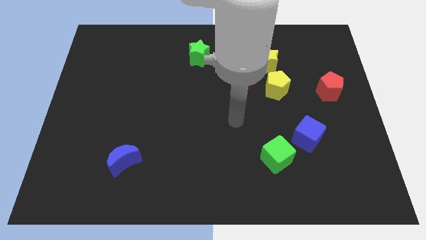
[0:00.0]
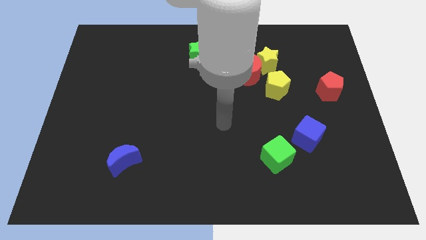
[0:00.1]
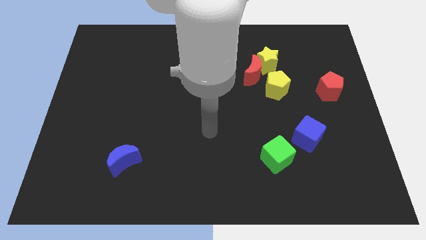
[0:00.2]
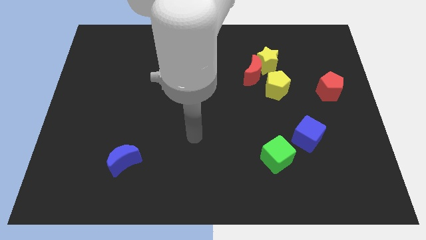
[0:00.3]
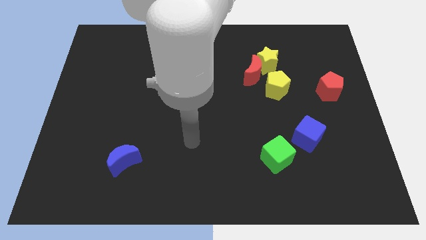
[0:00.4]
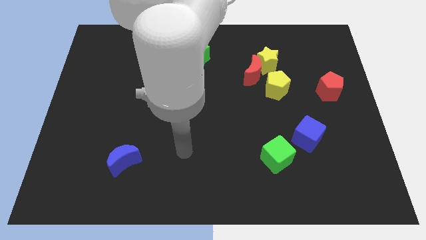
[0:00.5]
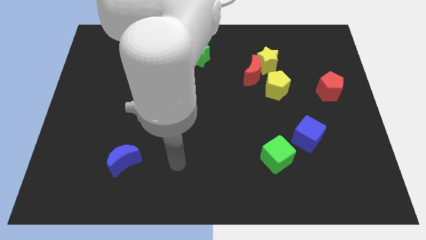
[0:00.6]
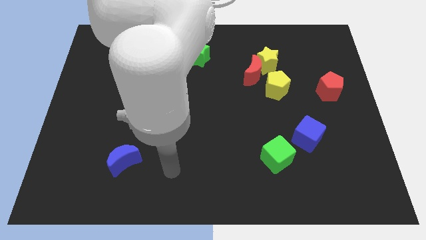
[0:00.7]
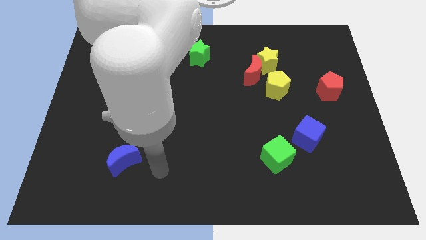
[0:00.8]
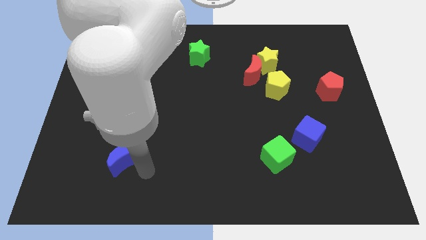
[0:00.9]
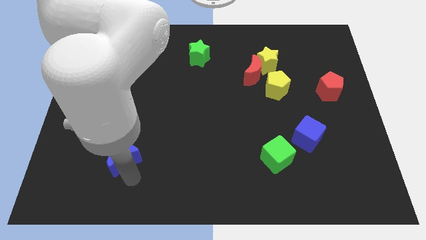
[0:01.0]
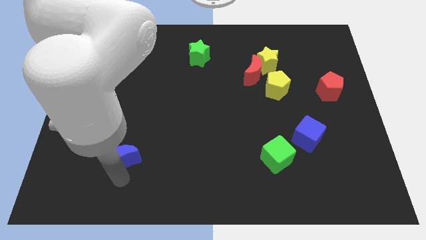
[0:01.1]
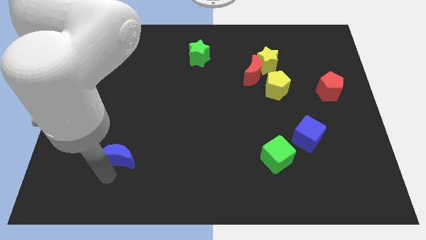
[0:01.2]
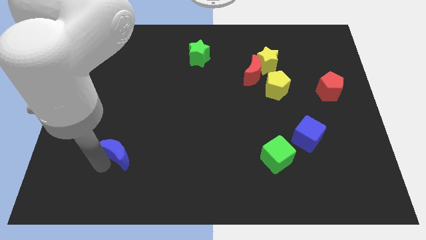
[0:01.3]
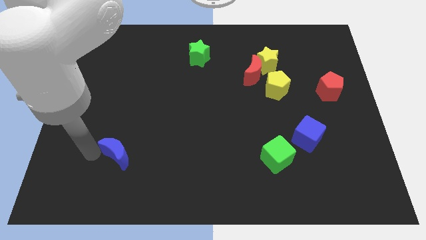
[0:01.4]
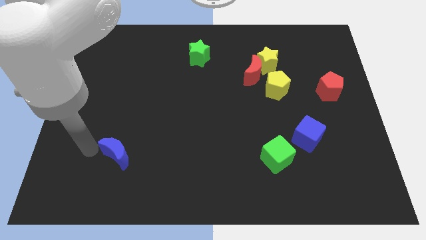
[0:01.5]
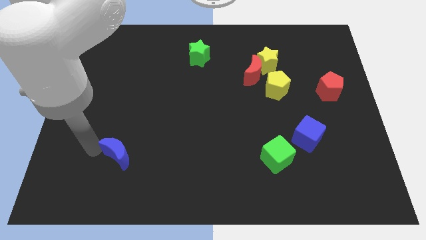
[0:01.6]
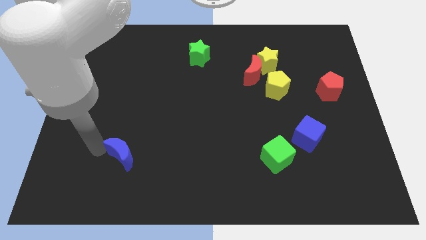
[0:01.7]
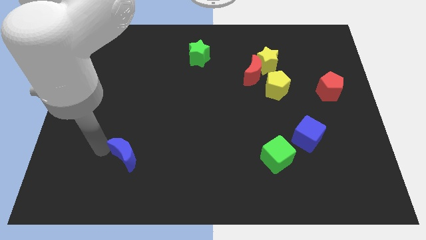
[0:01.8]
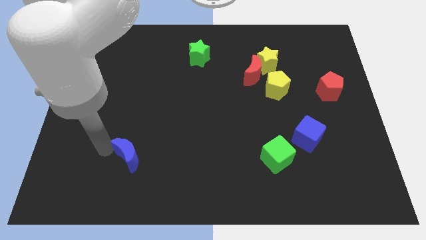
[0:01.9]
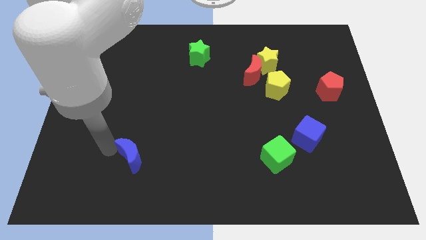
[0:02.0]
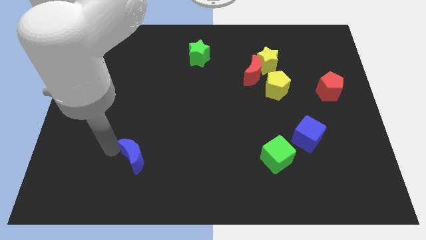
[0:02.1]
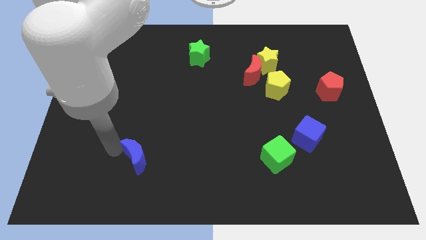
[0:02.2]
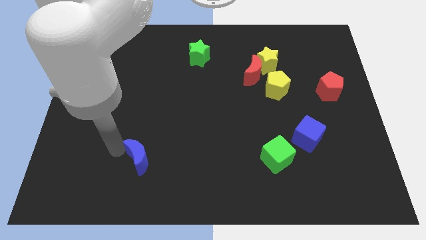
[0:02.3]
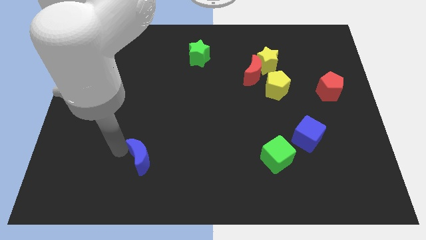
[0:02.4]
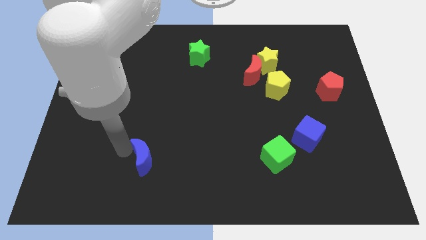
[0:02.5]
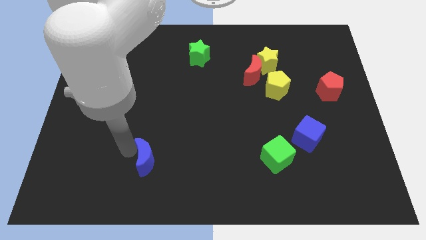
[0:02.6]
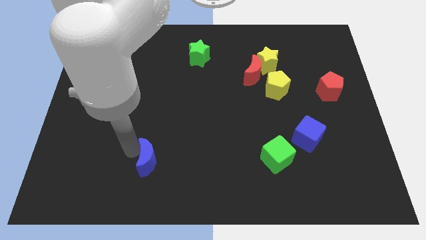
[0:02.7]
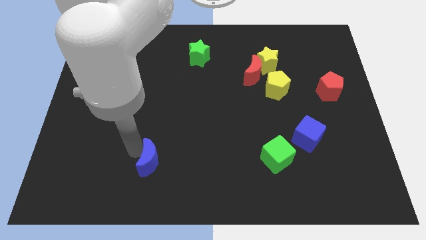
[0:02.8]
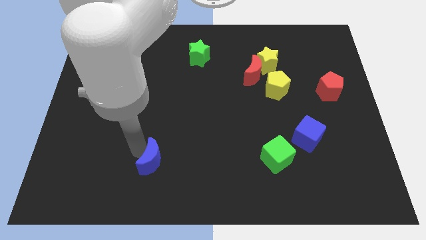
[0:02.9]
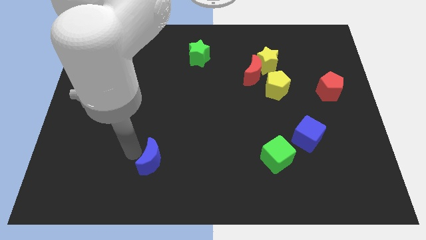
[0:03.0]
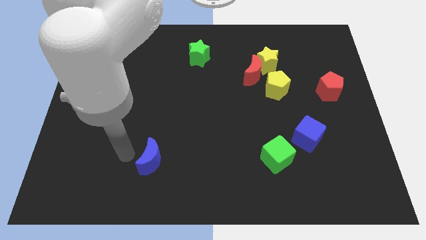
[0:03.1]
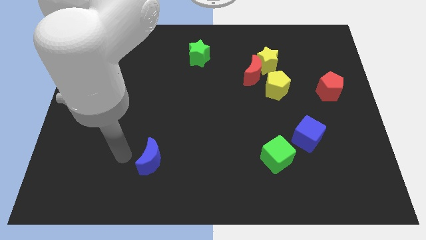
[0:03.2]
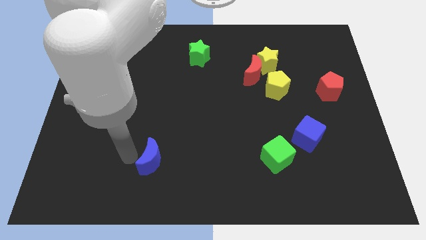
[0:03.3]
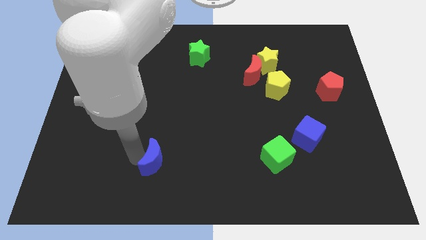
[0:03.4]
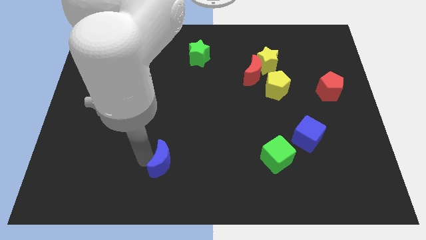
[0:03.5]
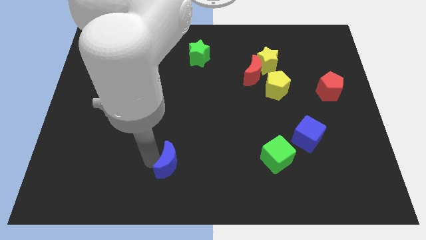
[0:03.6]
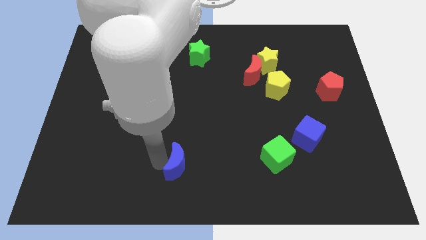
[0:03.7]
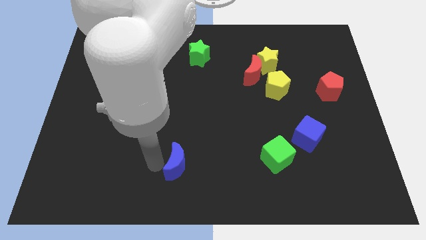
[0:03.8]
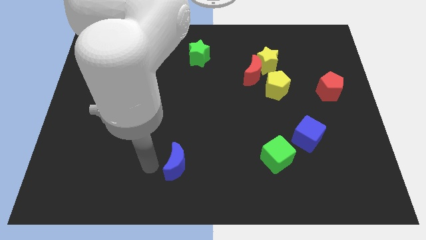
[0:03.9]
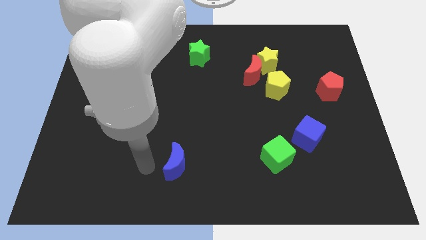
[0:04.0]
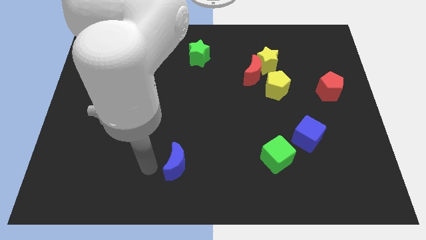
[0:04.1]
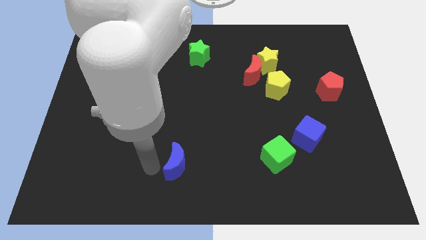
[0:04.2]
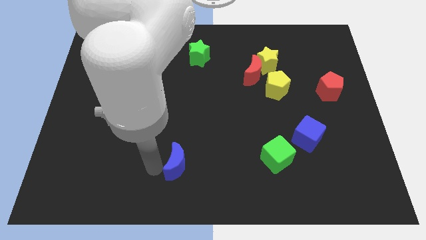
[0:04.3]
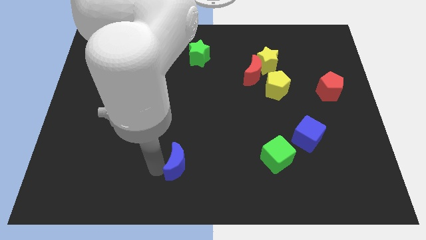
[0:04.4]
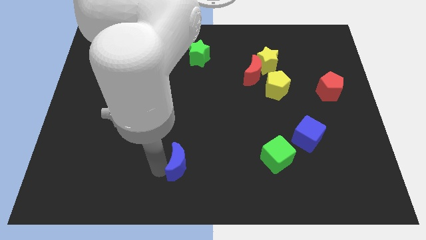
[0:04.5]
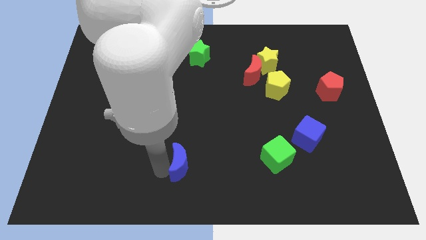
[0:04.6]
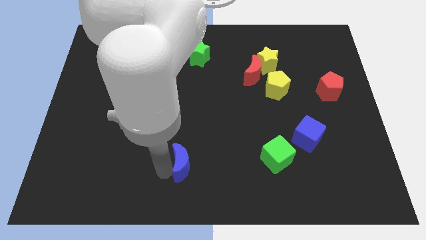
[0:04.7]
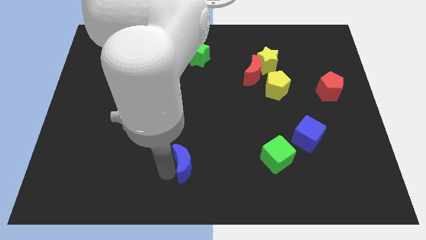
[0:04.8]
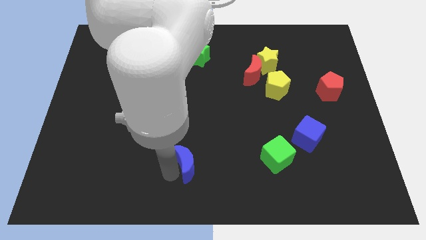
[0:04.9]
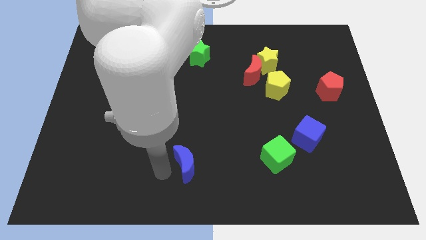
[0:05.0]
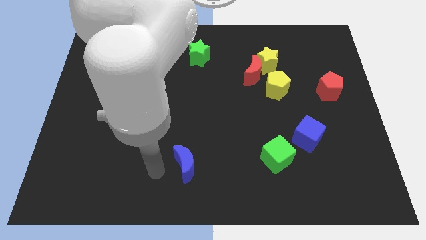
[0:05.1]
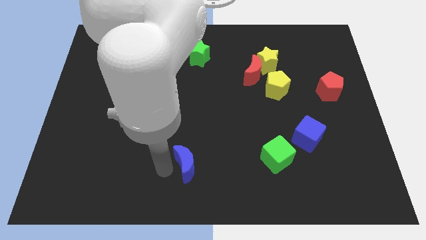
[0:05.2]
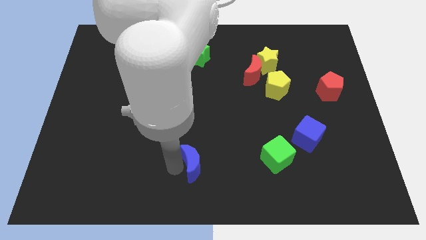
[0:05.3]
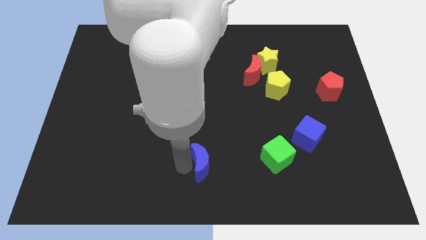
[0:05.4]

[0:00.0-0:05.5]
push the blue moon to the left side of the green cube

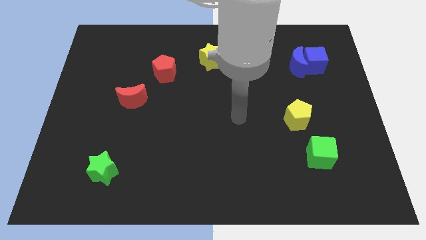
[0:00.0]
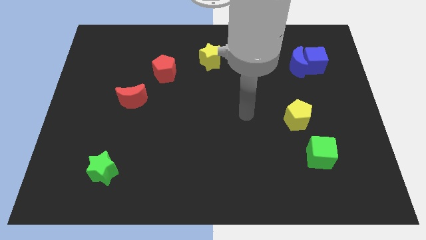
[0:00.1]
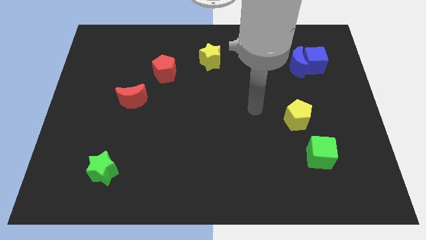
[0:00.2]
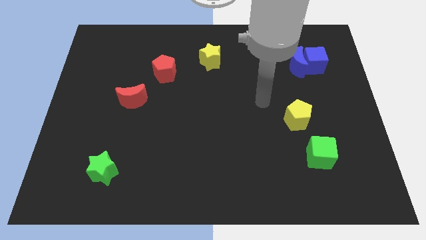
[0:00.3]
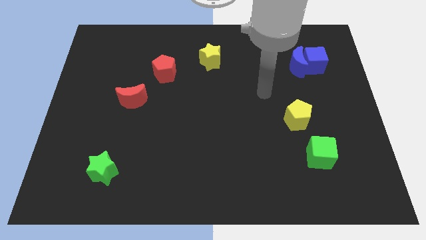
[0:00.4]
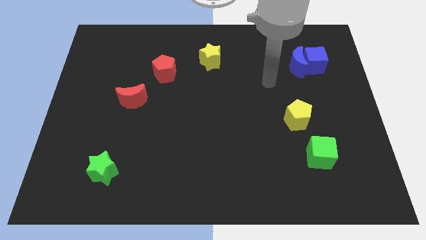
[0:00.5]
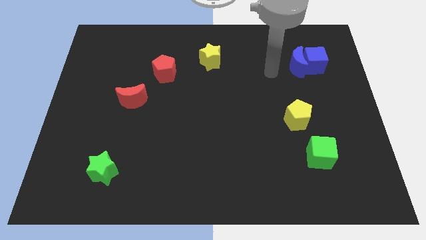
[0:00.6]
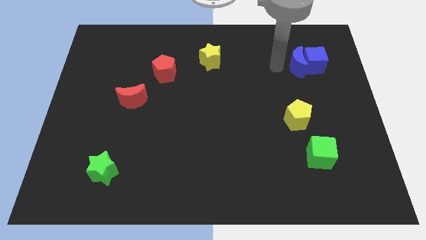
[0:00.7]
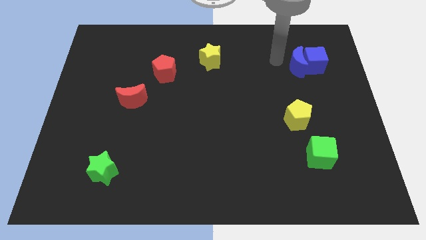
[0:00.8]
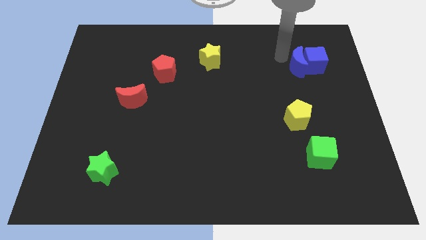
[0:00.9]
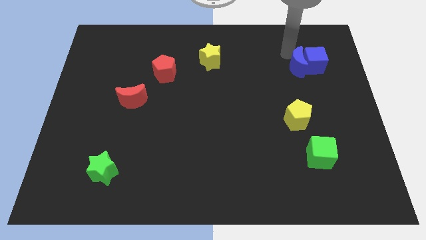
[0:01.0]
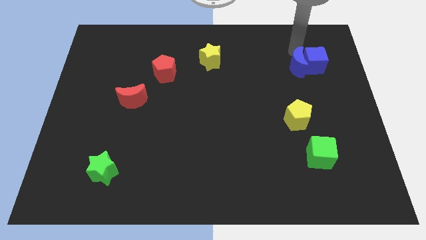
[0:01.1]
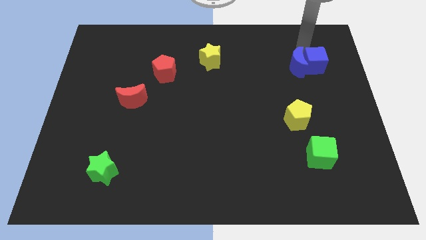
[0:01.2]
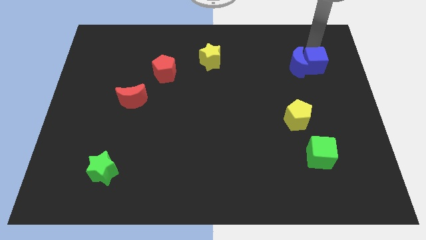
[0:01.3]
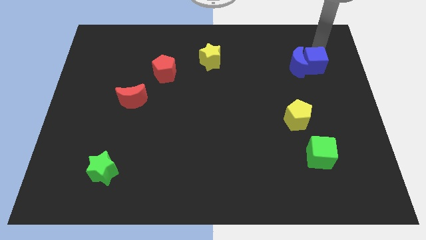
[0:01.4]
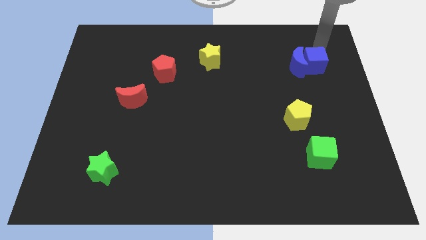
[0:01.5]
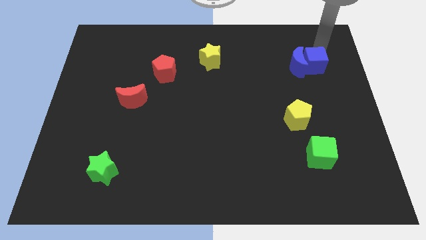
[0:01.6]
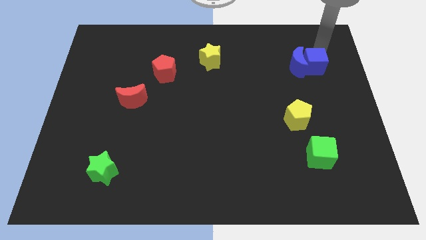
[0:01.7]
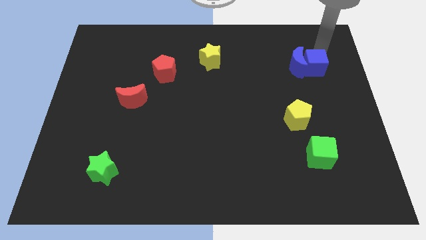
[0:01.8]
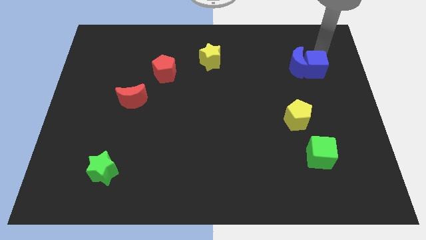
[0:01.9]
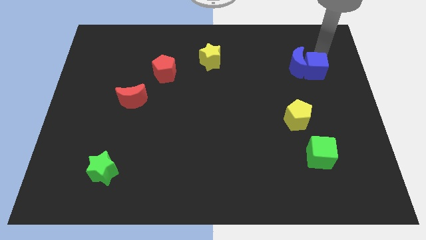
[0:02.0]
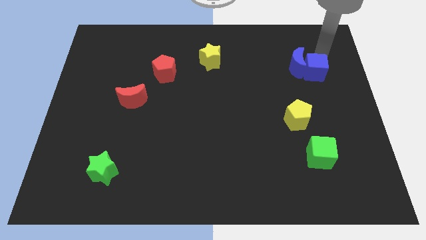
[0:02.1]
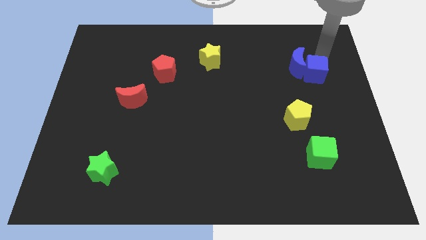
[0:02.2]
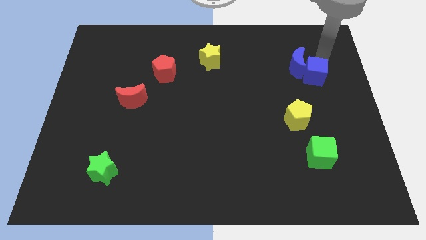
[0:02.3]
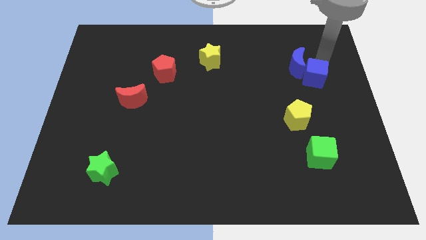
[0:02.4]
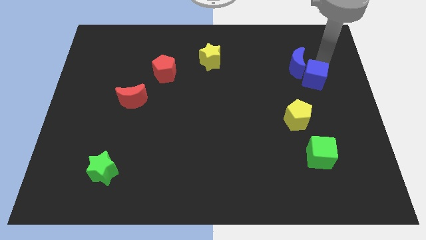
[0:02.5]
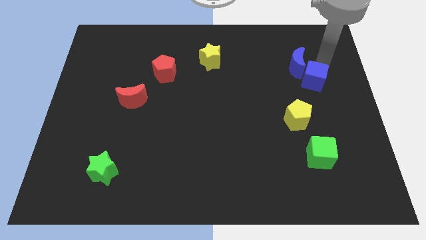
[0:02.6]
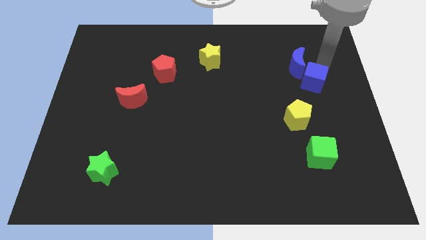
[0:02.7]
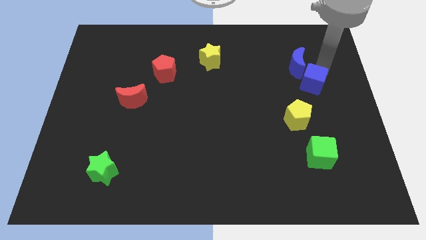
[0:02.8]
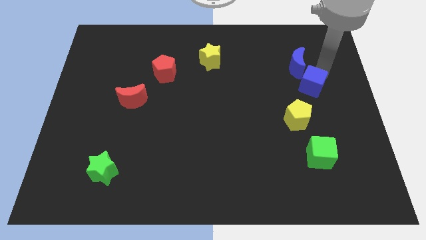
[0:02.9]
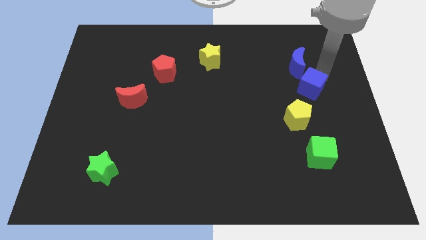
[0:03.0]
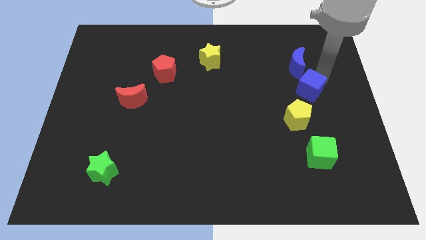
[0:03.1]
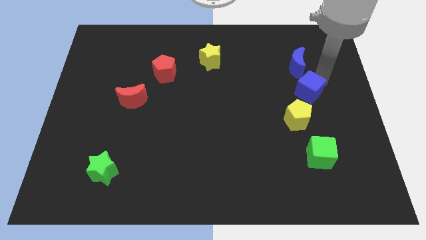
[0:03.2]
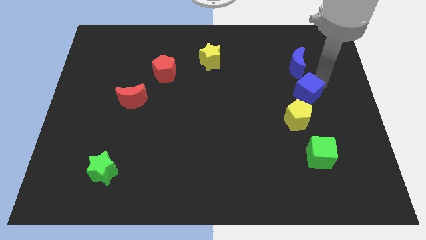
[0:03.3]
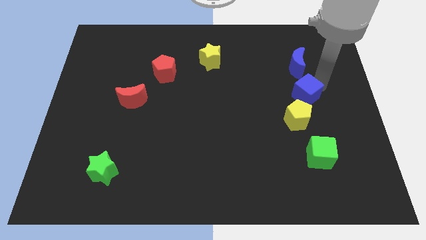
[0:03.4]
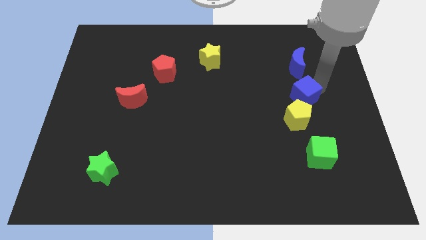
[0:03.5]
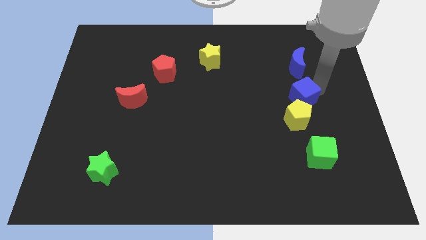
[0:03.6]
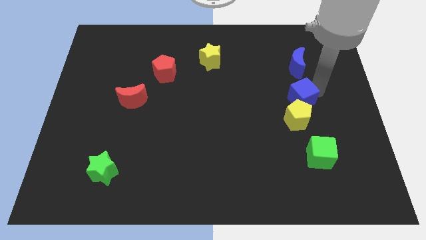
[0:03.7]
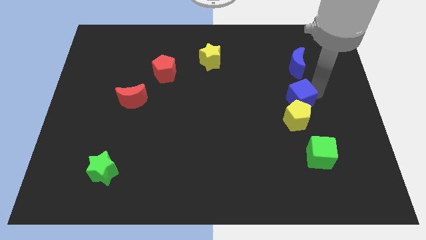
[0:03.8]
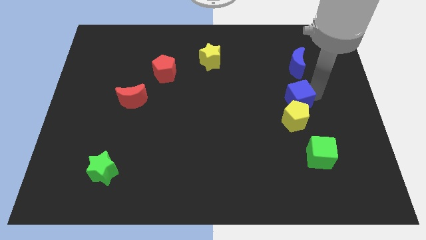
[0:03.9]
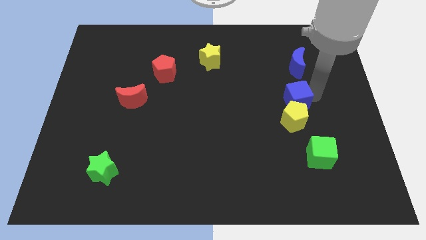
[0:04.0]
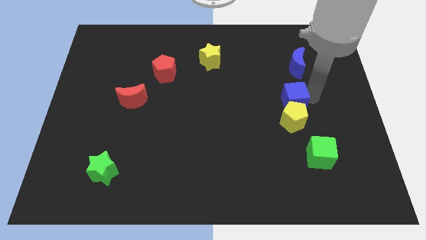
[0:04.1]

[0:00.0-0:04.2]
put the blue cube to the top left of the yellow pentagon
